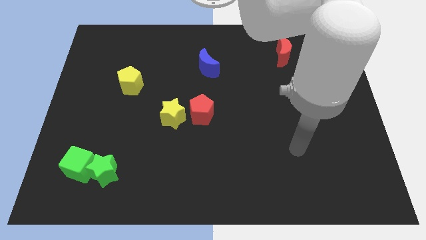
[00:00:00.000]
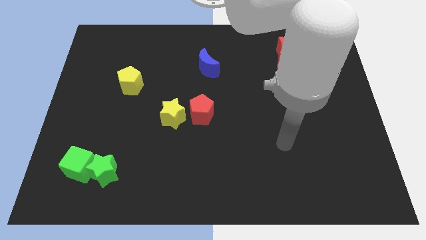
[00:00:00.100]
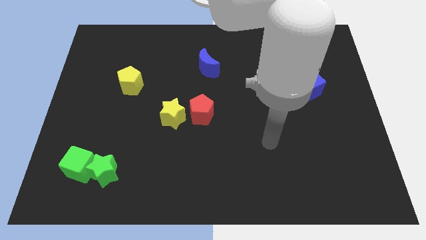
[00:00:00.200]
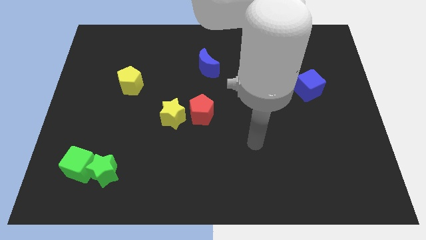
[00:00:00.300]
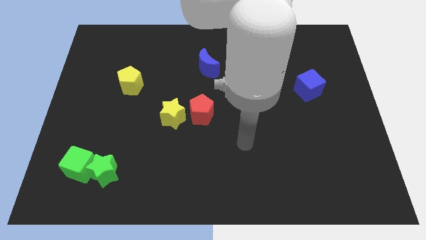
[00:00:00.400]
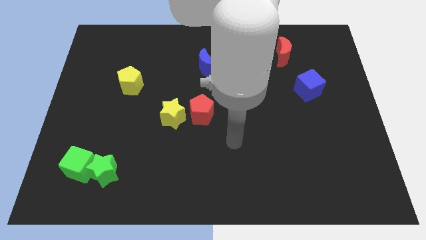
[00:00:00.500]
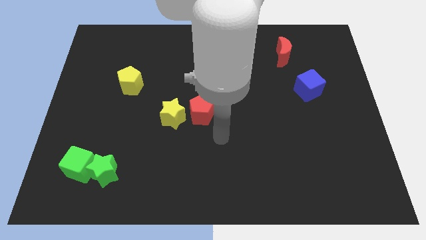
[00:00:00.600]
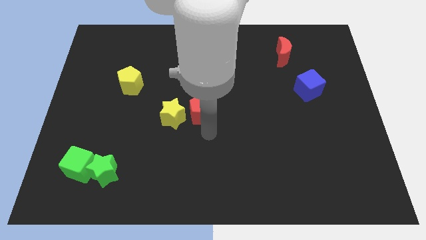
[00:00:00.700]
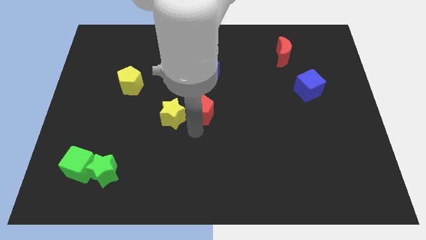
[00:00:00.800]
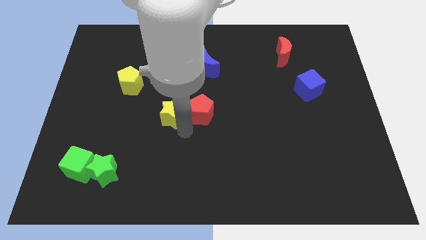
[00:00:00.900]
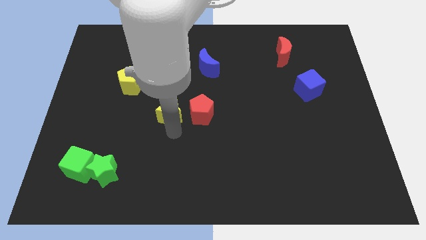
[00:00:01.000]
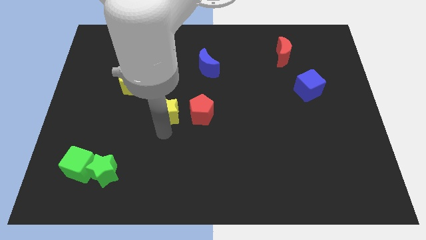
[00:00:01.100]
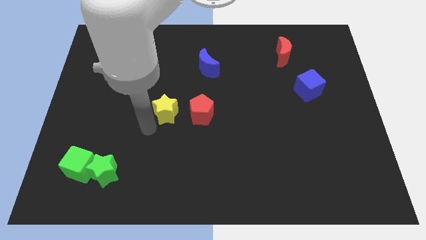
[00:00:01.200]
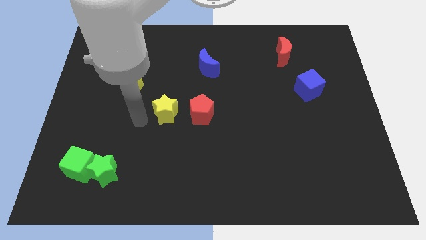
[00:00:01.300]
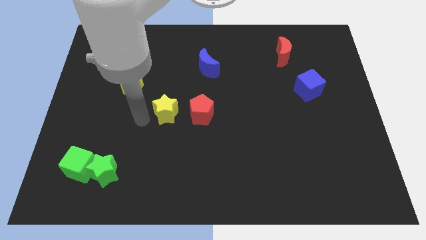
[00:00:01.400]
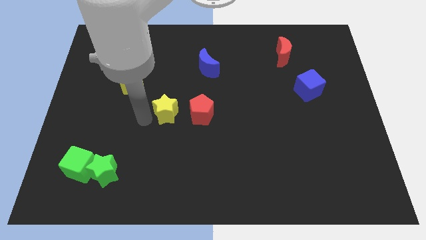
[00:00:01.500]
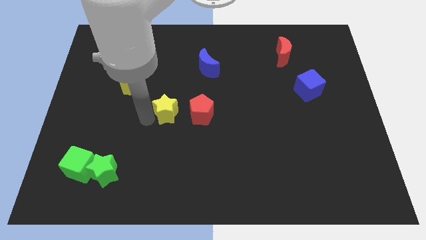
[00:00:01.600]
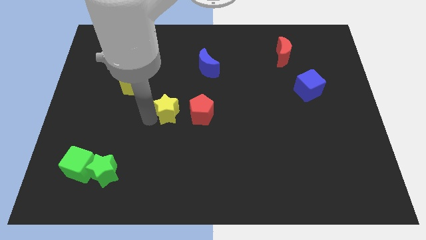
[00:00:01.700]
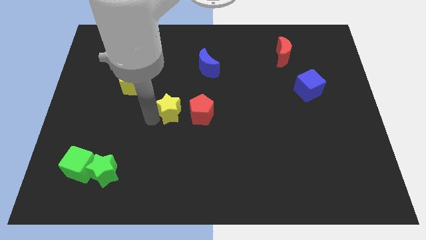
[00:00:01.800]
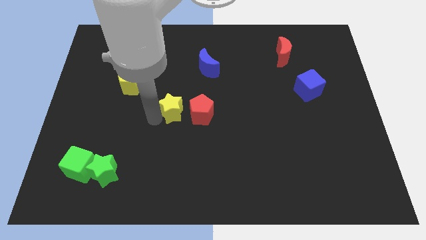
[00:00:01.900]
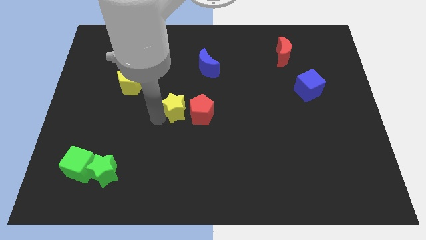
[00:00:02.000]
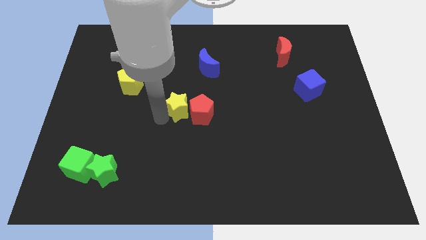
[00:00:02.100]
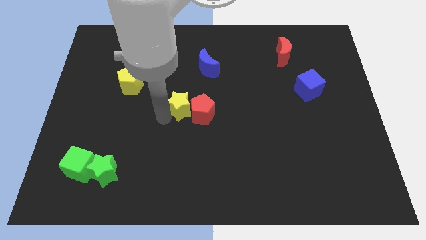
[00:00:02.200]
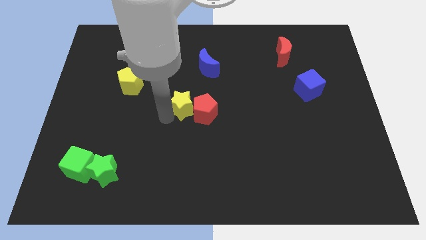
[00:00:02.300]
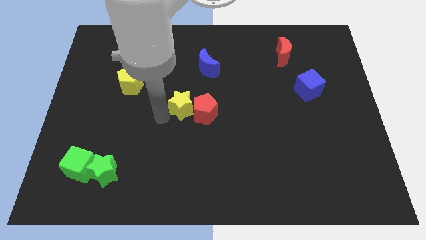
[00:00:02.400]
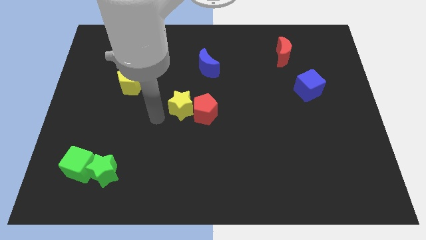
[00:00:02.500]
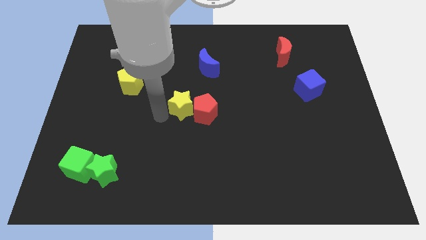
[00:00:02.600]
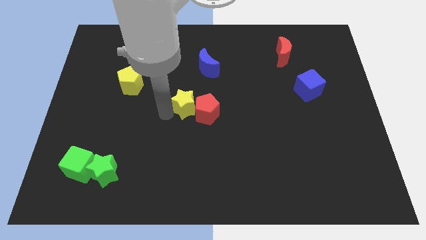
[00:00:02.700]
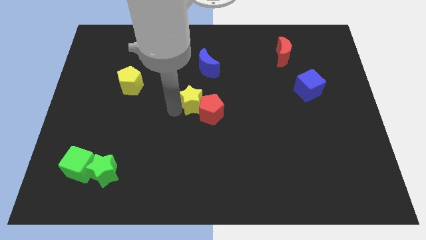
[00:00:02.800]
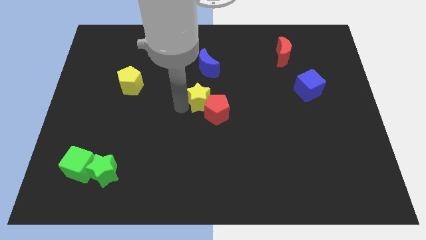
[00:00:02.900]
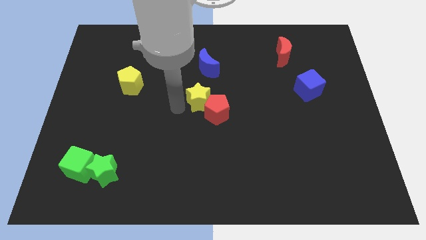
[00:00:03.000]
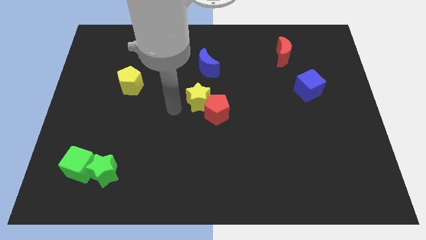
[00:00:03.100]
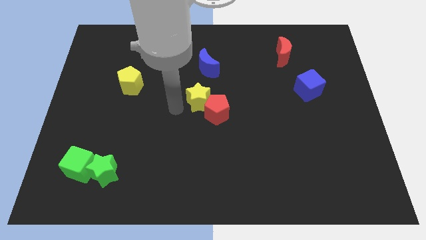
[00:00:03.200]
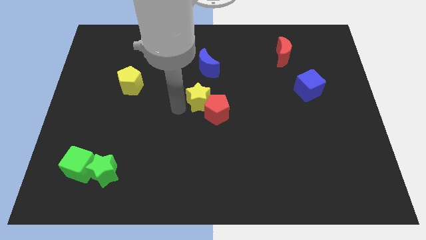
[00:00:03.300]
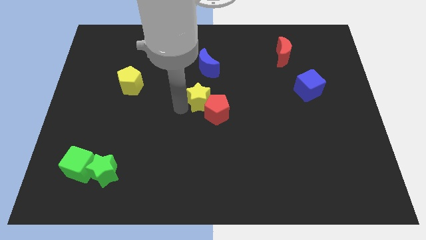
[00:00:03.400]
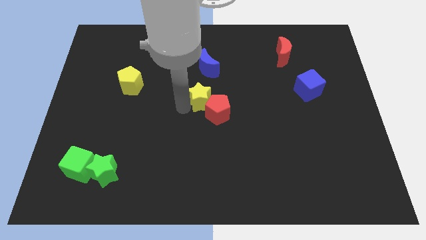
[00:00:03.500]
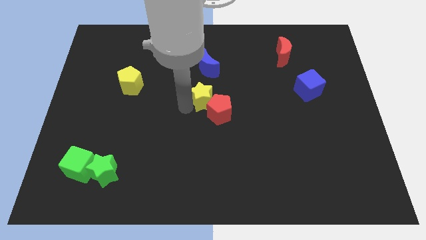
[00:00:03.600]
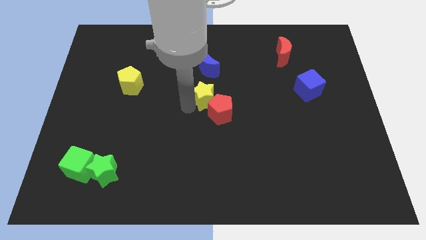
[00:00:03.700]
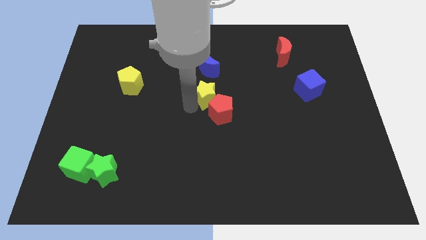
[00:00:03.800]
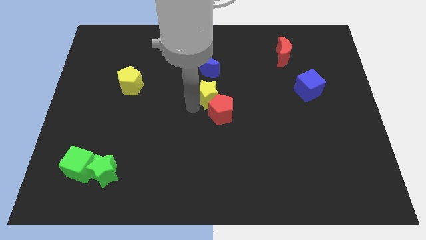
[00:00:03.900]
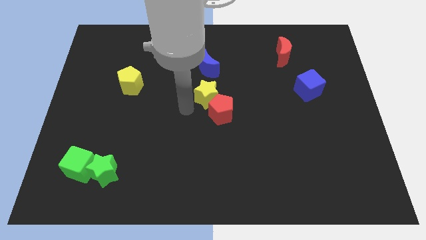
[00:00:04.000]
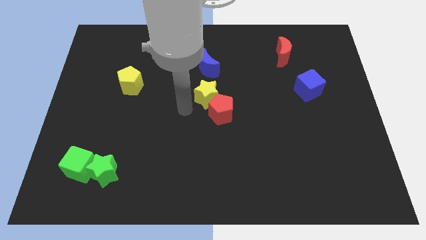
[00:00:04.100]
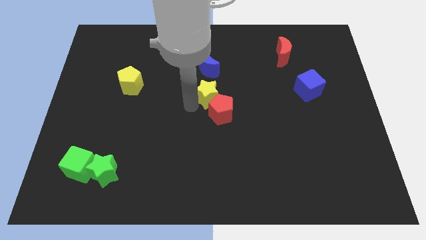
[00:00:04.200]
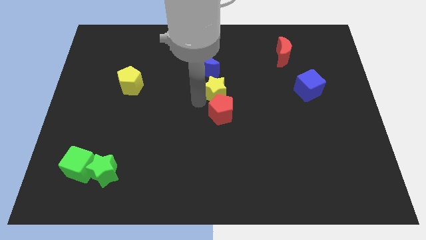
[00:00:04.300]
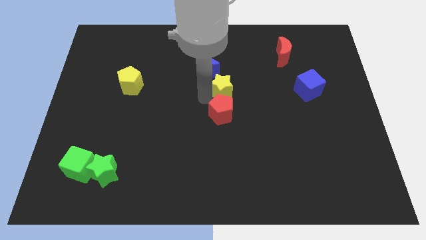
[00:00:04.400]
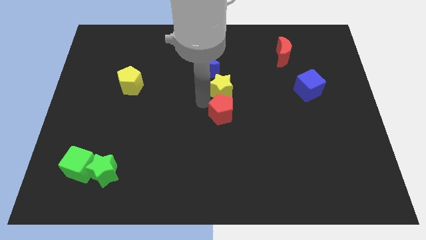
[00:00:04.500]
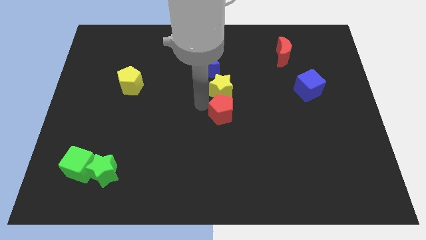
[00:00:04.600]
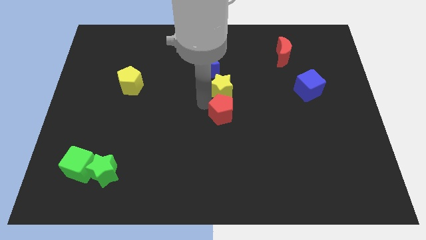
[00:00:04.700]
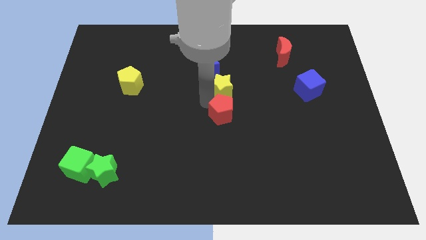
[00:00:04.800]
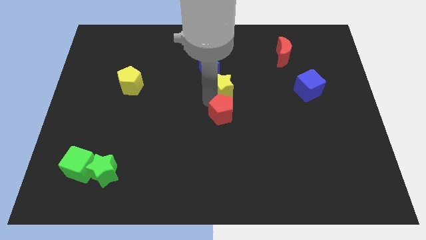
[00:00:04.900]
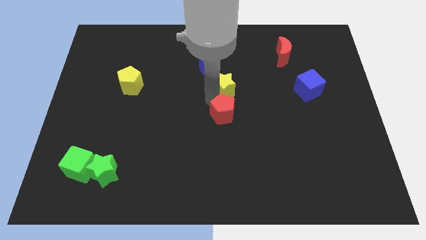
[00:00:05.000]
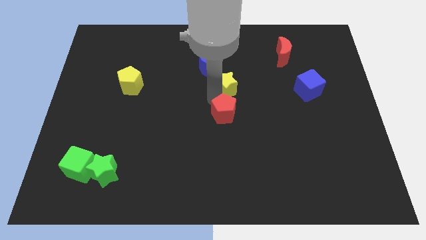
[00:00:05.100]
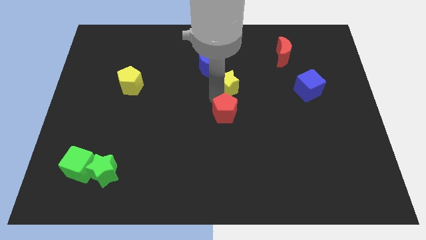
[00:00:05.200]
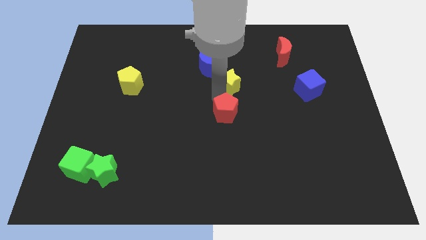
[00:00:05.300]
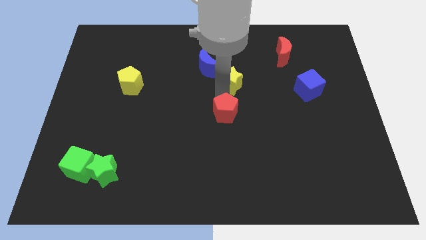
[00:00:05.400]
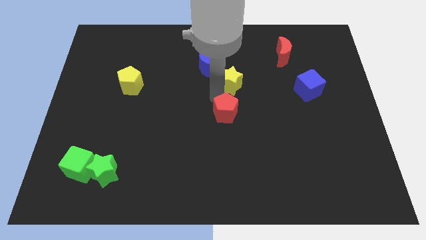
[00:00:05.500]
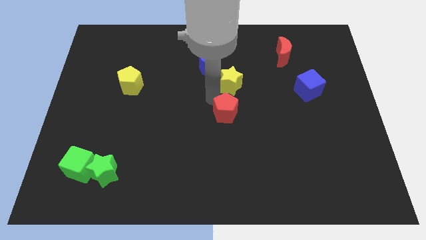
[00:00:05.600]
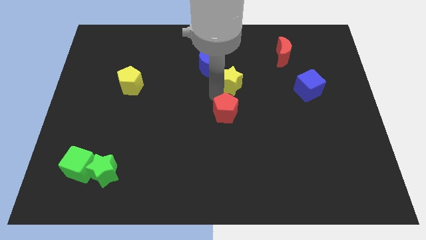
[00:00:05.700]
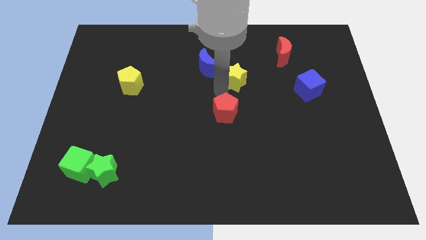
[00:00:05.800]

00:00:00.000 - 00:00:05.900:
put the yellow star to the right of the blue moon
